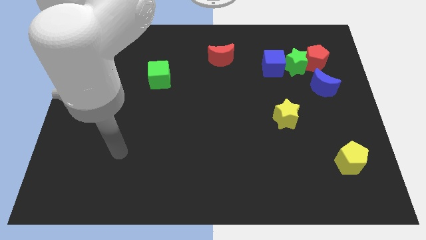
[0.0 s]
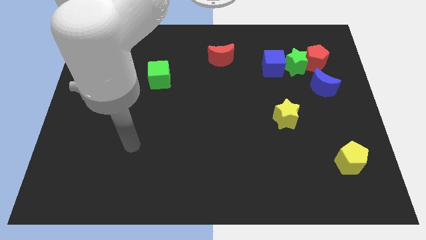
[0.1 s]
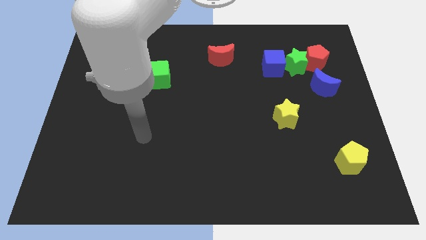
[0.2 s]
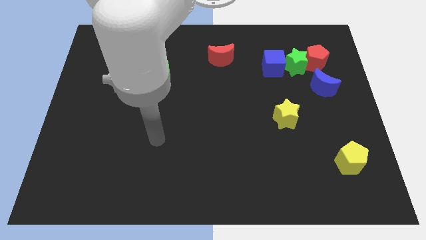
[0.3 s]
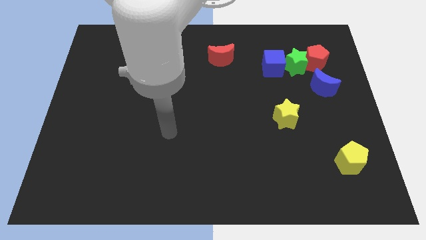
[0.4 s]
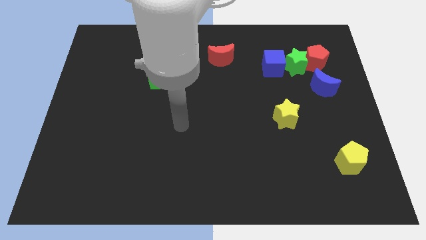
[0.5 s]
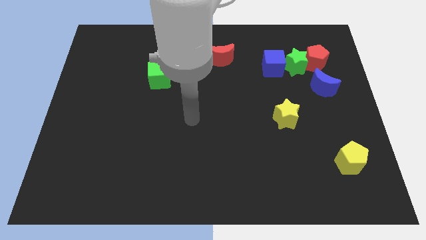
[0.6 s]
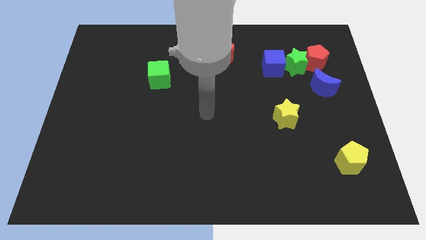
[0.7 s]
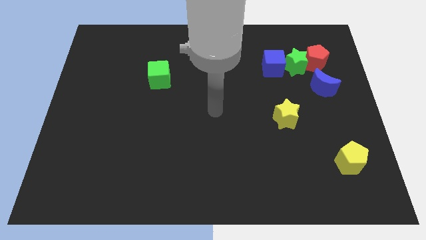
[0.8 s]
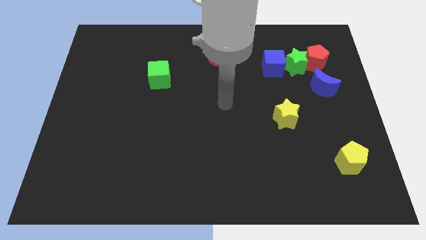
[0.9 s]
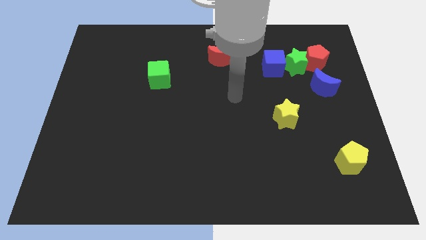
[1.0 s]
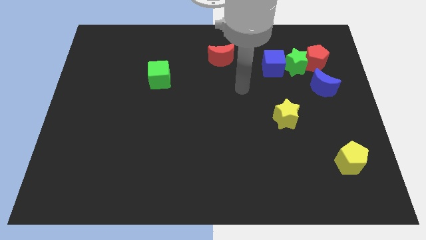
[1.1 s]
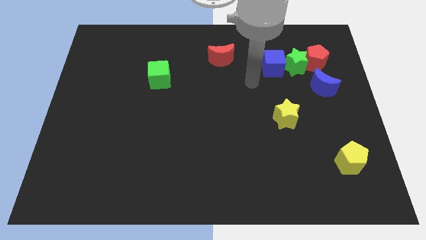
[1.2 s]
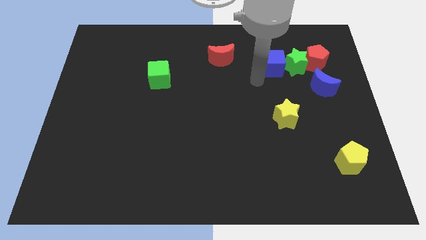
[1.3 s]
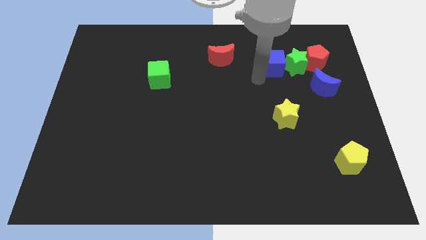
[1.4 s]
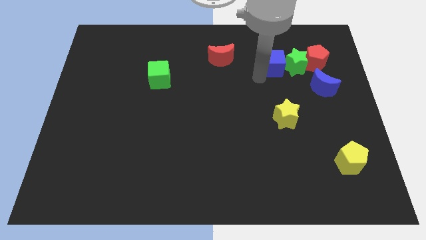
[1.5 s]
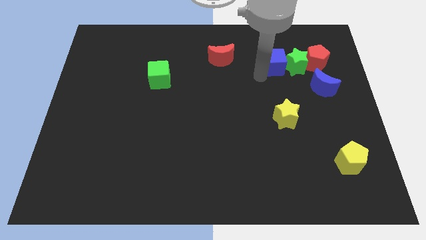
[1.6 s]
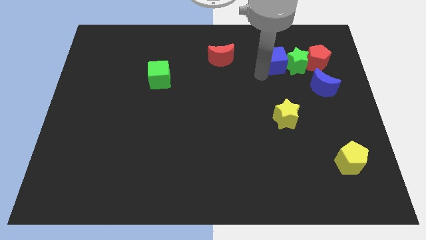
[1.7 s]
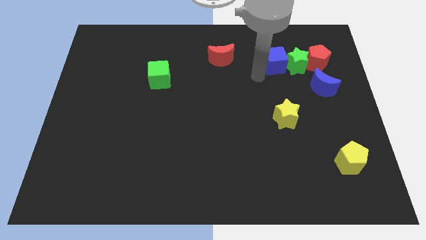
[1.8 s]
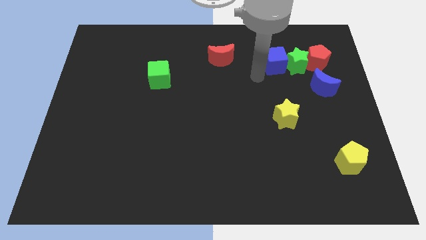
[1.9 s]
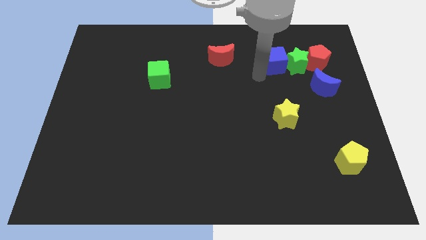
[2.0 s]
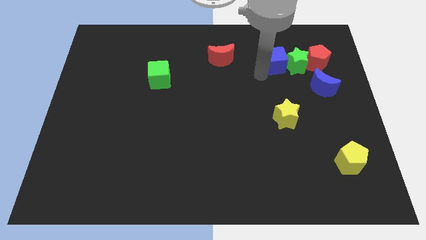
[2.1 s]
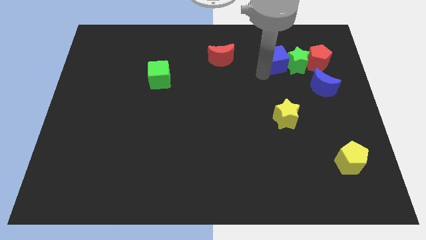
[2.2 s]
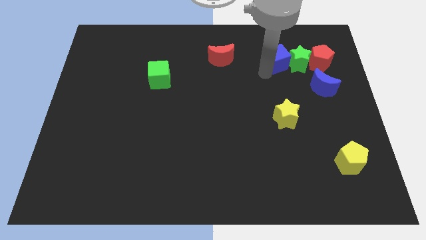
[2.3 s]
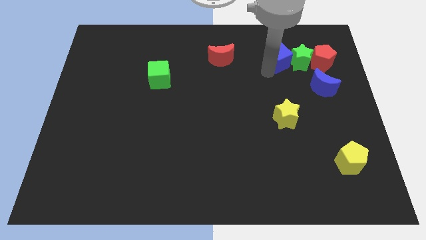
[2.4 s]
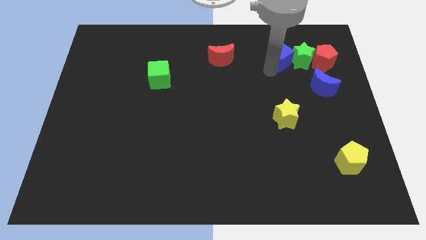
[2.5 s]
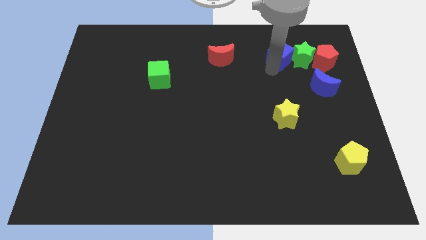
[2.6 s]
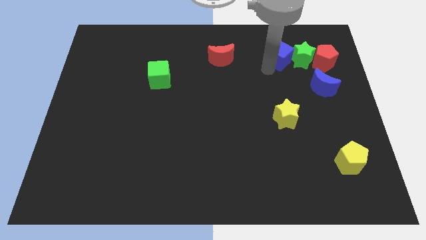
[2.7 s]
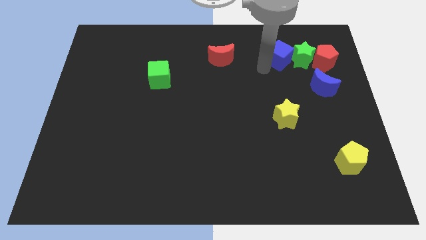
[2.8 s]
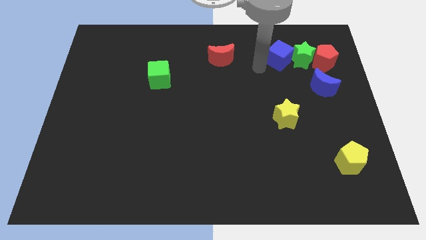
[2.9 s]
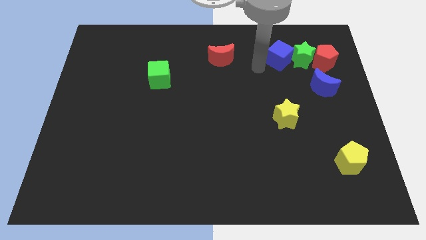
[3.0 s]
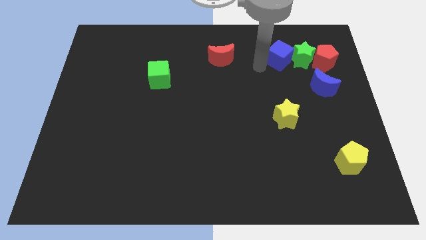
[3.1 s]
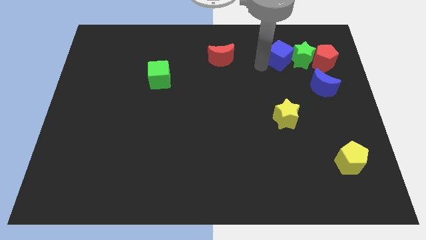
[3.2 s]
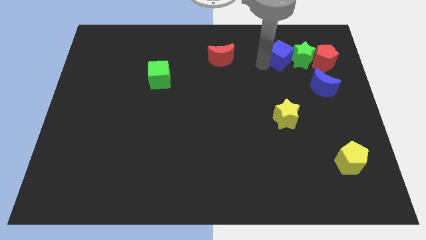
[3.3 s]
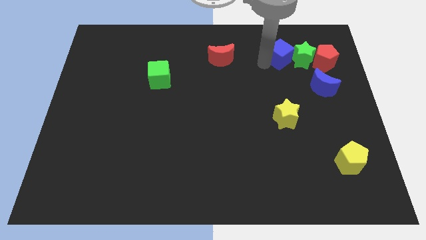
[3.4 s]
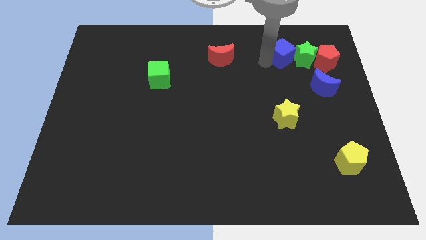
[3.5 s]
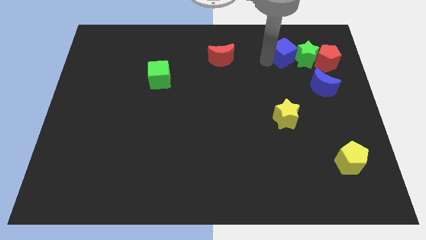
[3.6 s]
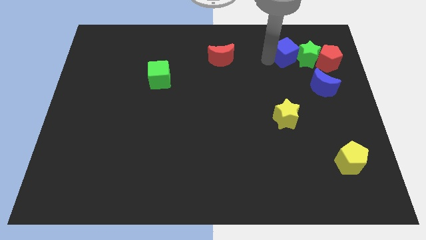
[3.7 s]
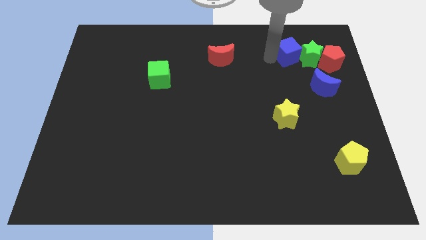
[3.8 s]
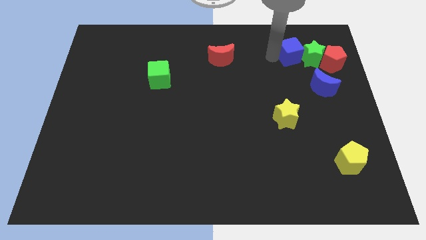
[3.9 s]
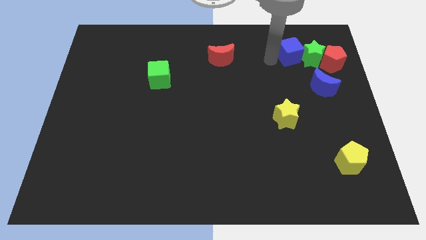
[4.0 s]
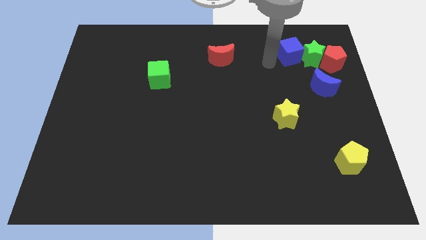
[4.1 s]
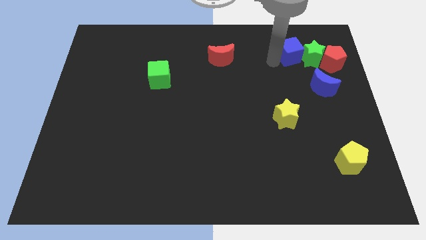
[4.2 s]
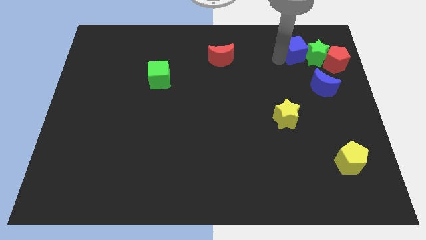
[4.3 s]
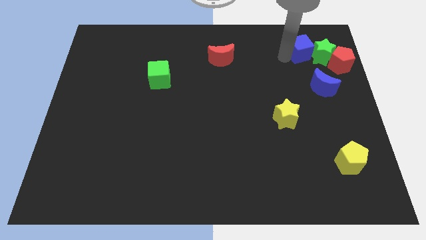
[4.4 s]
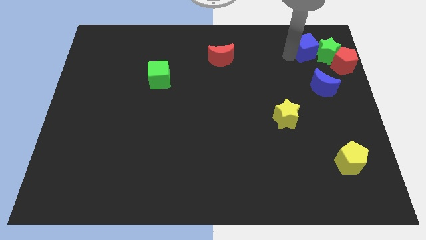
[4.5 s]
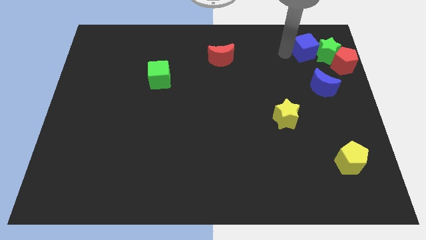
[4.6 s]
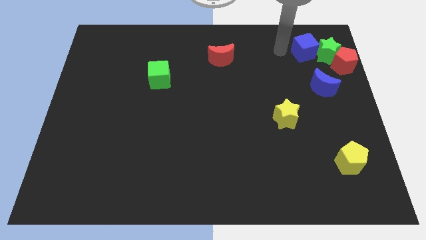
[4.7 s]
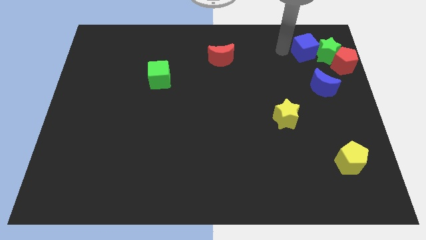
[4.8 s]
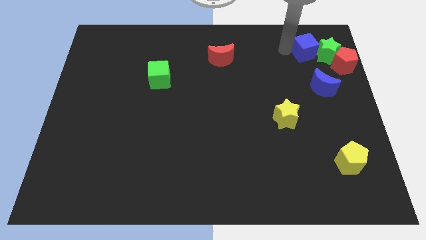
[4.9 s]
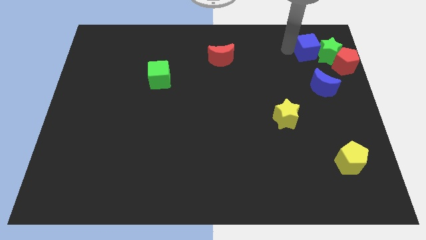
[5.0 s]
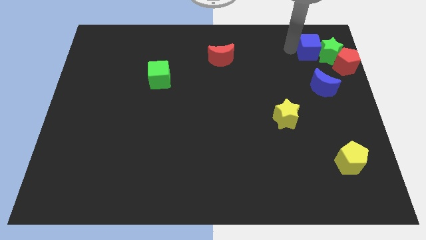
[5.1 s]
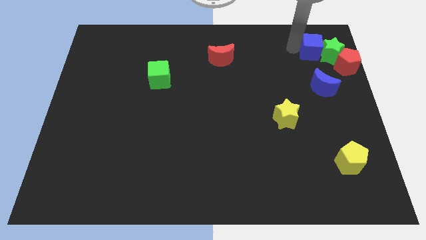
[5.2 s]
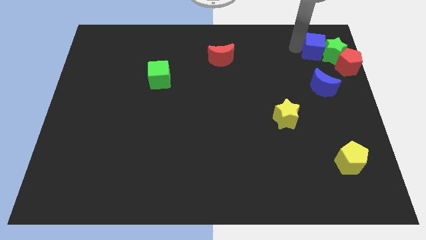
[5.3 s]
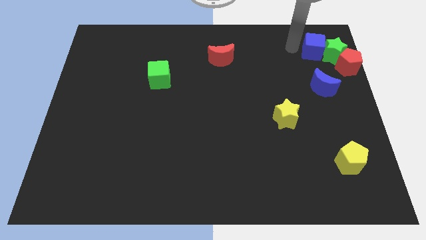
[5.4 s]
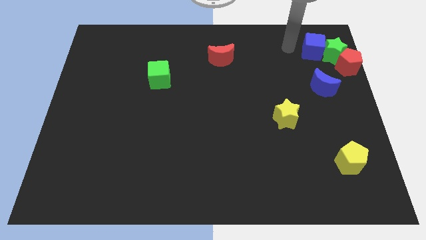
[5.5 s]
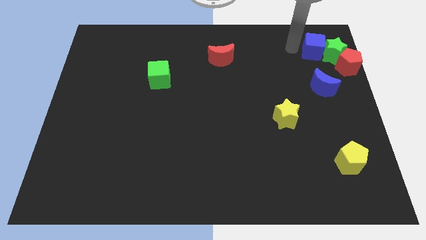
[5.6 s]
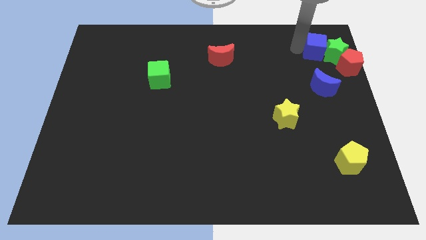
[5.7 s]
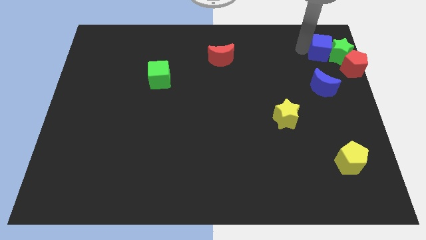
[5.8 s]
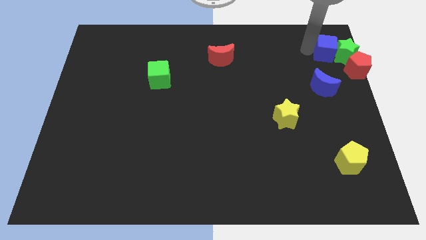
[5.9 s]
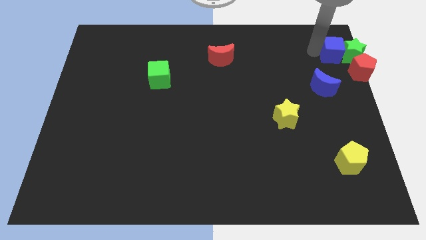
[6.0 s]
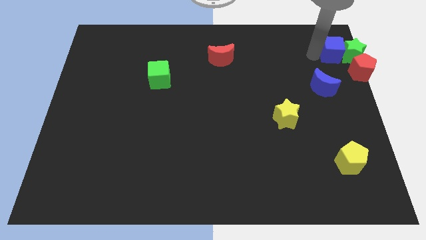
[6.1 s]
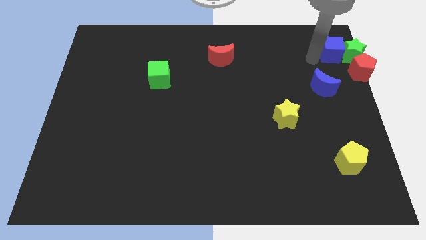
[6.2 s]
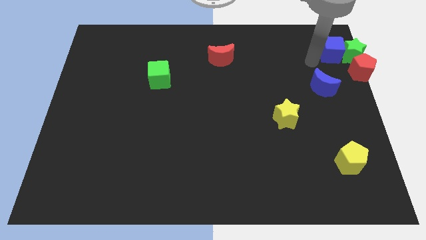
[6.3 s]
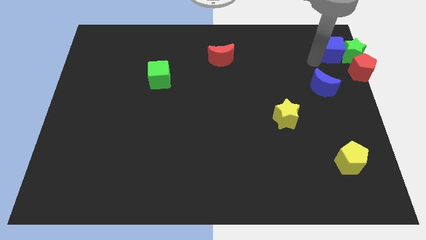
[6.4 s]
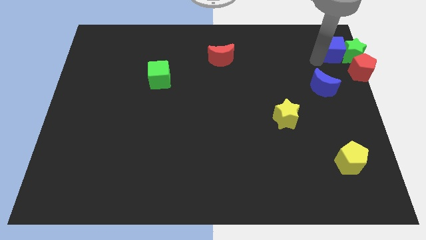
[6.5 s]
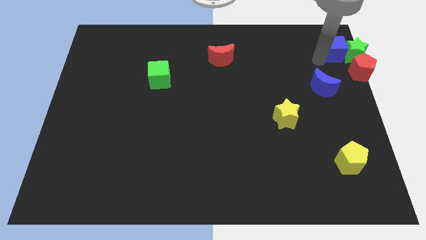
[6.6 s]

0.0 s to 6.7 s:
move the blue cube to the top right corner

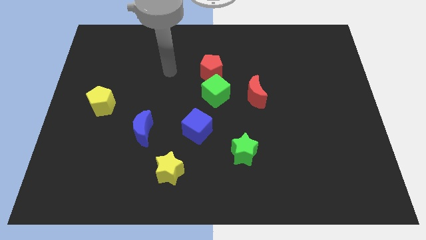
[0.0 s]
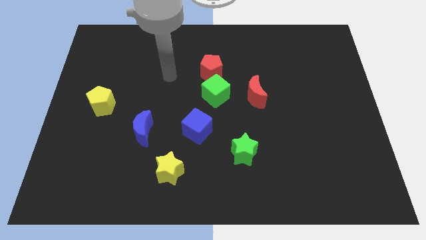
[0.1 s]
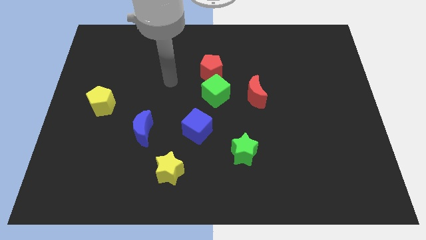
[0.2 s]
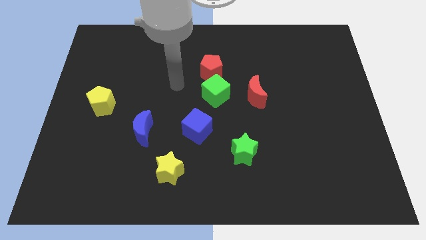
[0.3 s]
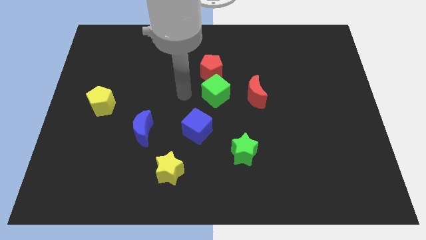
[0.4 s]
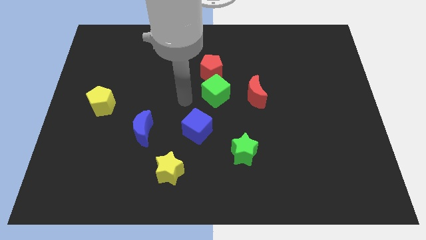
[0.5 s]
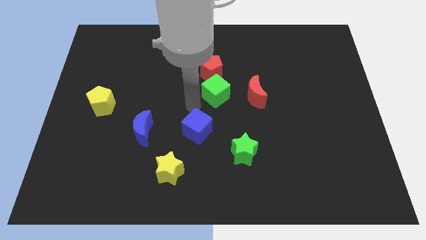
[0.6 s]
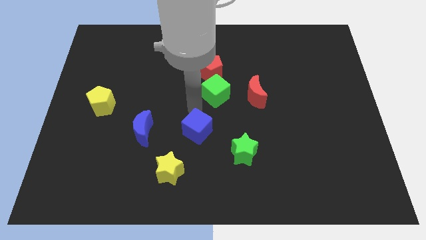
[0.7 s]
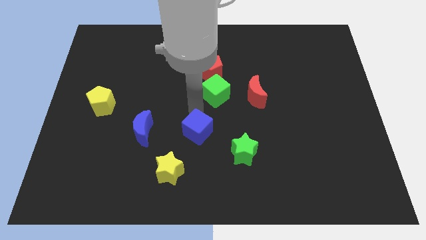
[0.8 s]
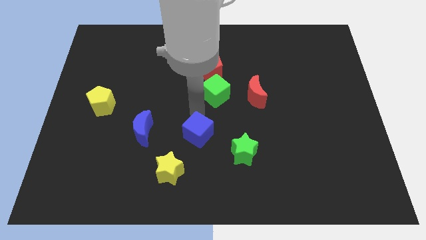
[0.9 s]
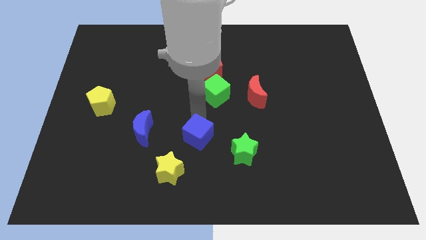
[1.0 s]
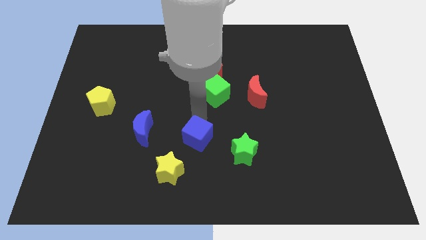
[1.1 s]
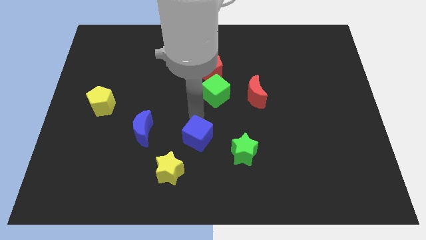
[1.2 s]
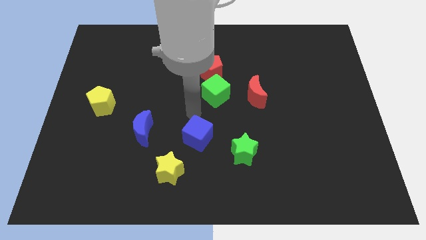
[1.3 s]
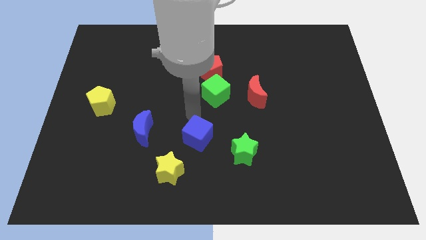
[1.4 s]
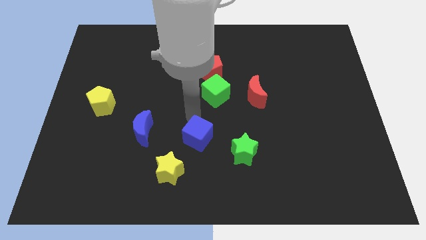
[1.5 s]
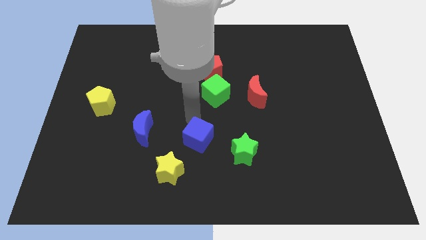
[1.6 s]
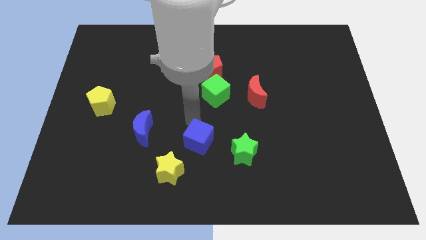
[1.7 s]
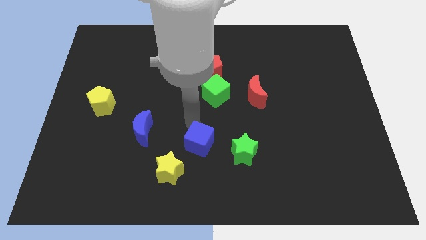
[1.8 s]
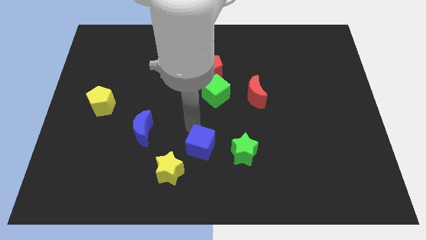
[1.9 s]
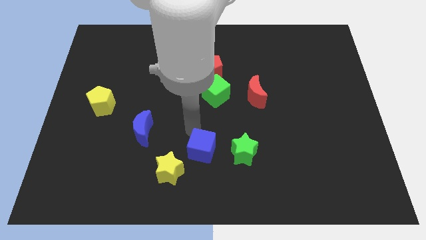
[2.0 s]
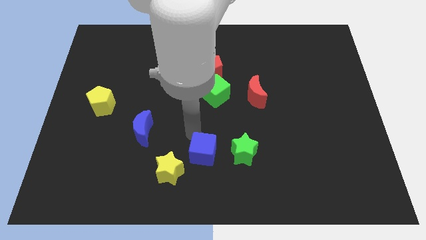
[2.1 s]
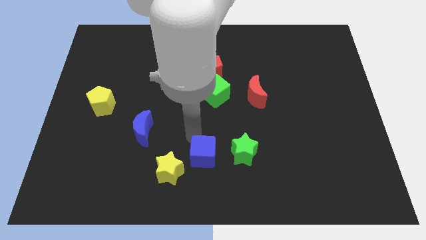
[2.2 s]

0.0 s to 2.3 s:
put the blue cube to the bottom side
